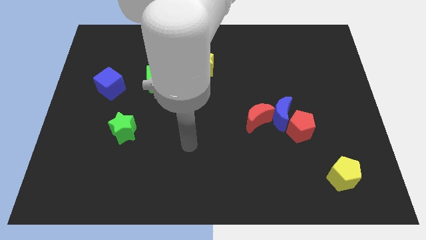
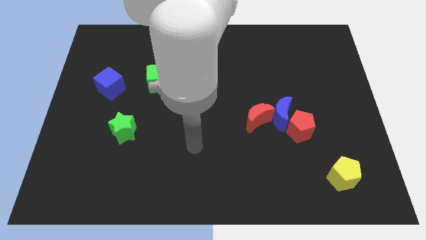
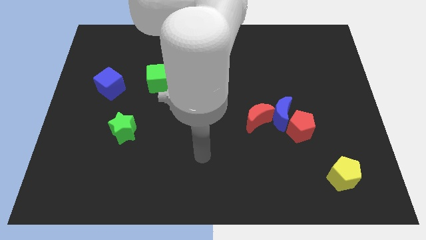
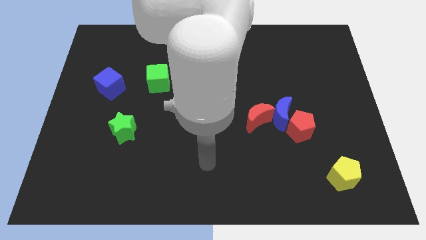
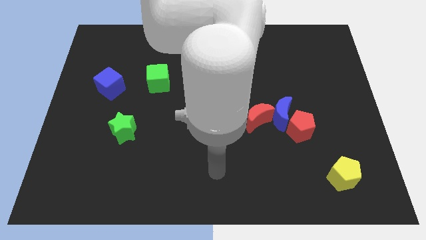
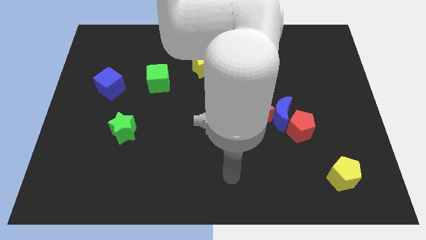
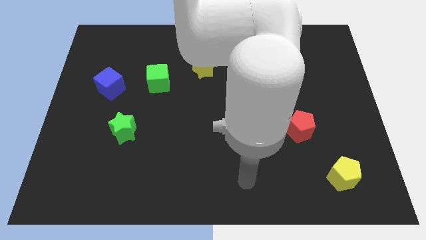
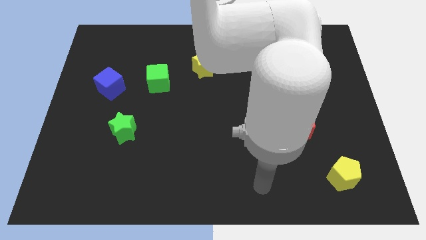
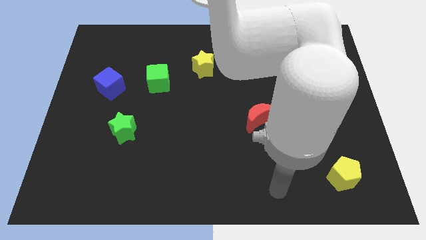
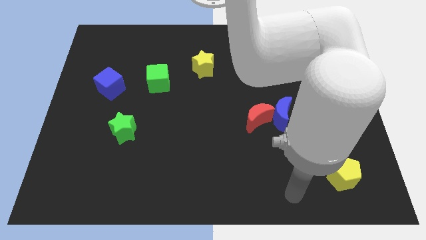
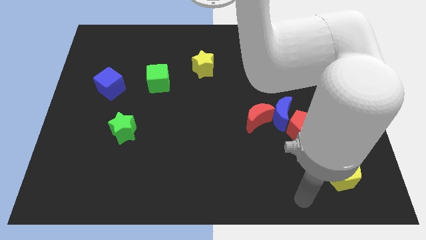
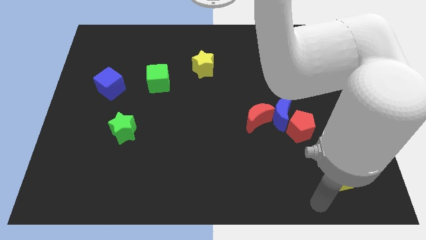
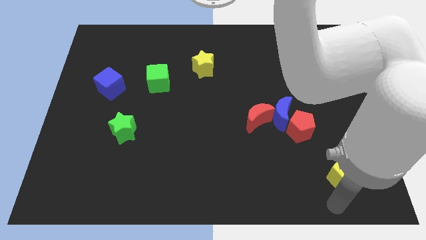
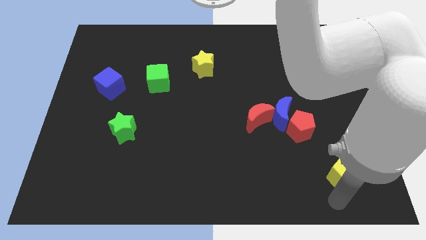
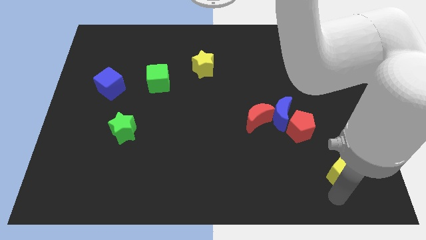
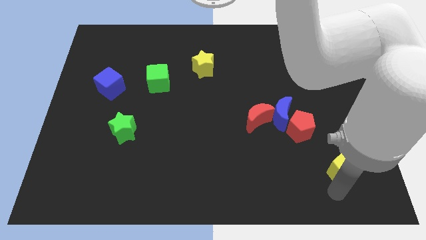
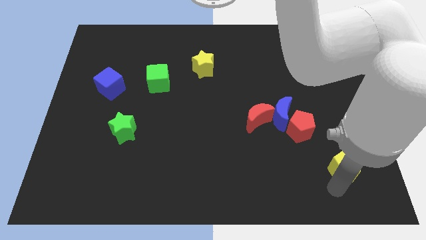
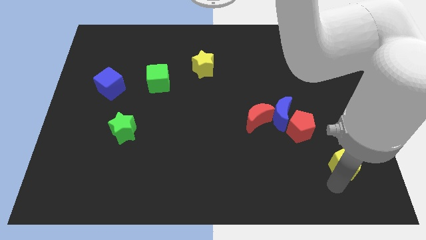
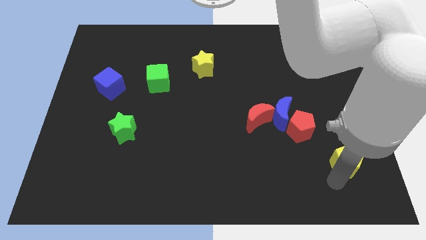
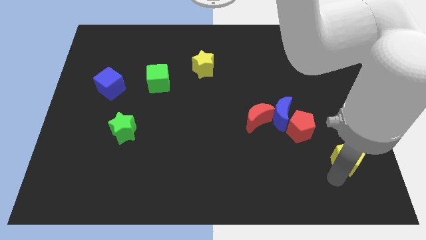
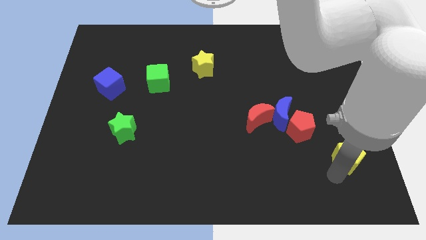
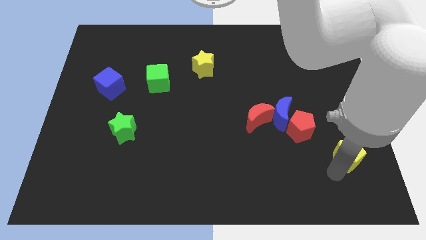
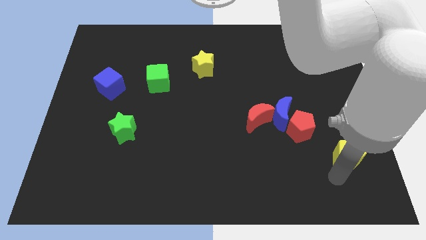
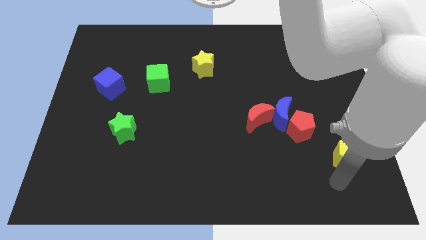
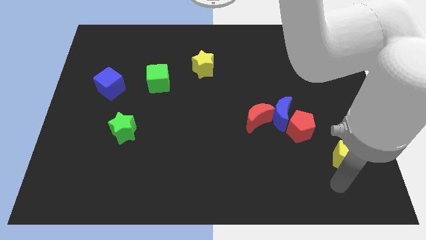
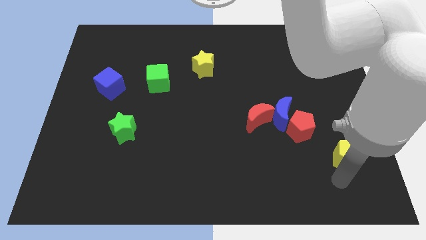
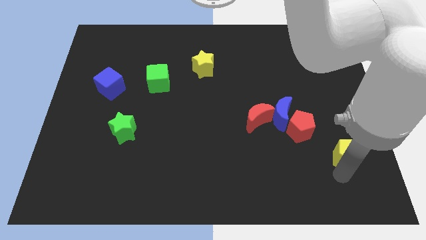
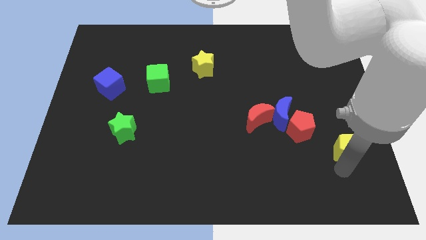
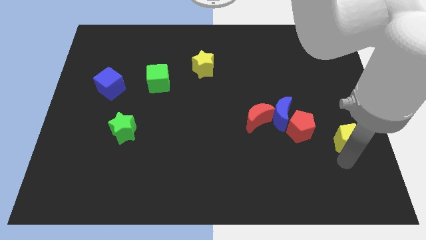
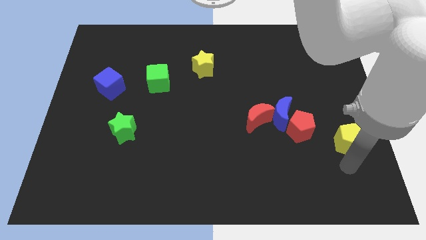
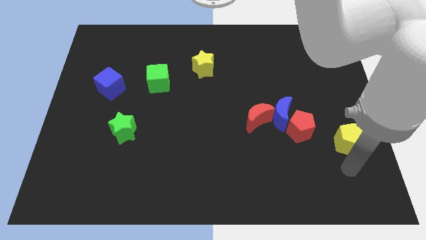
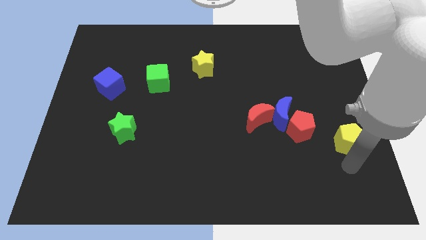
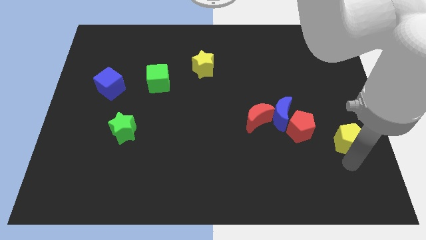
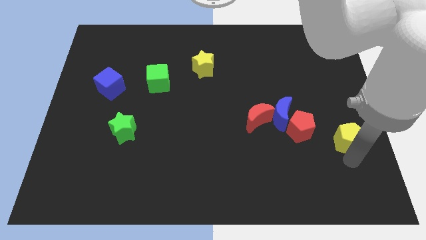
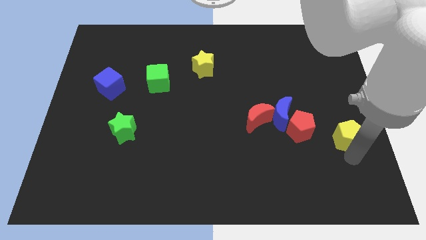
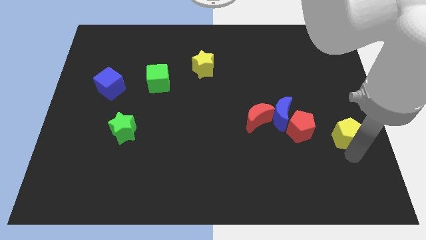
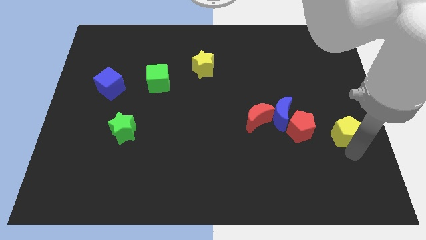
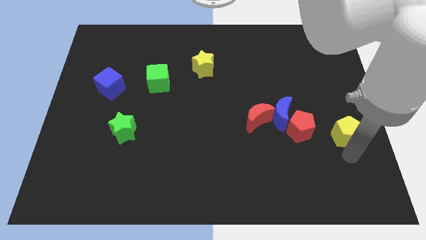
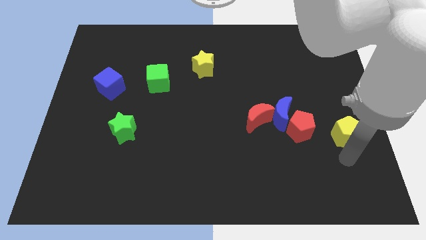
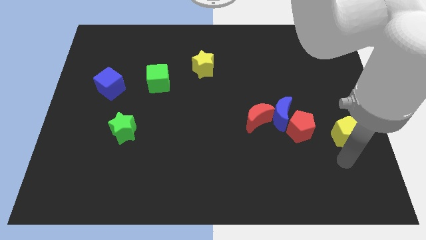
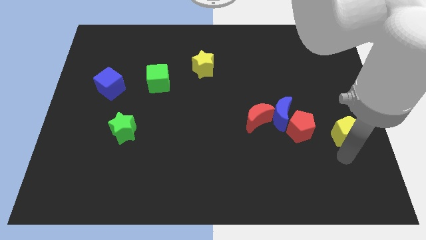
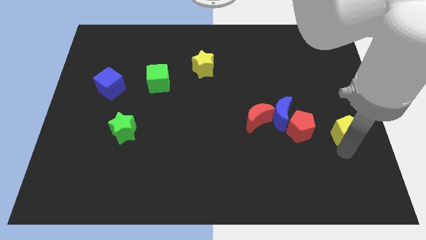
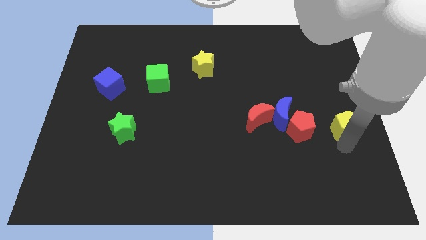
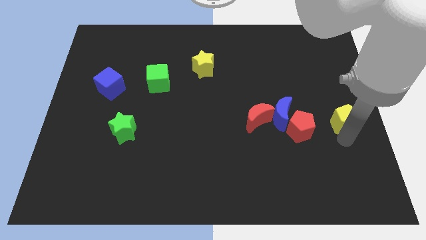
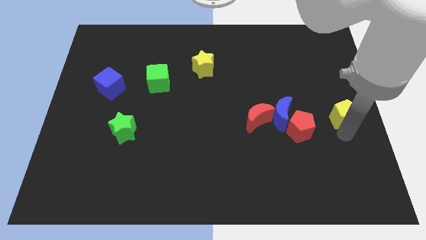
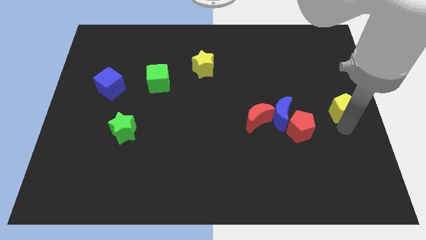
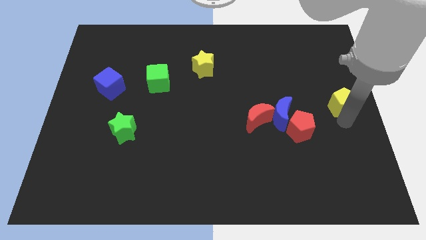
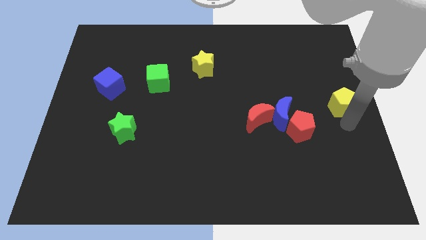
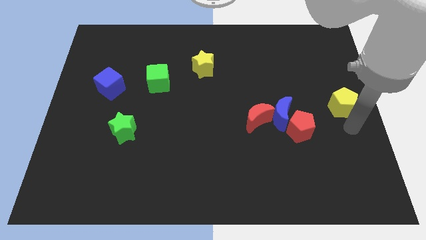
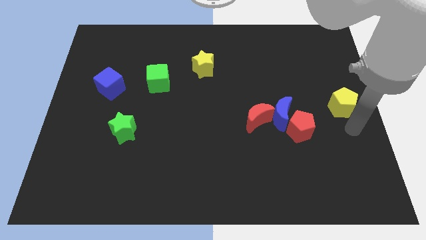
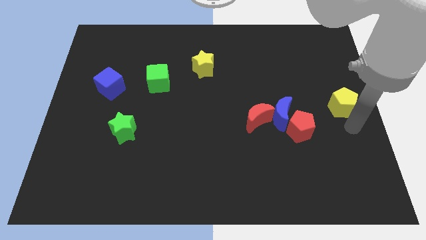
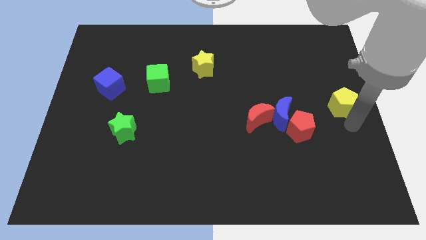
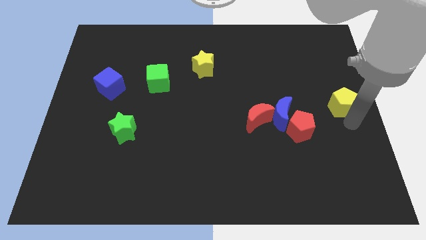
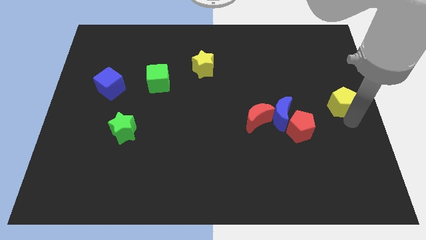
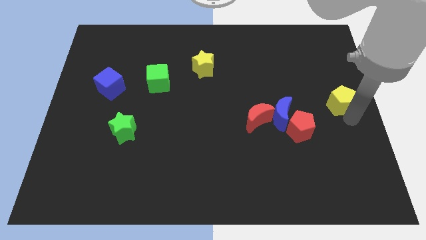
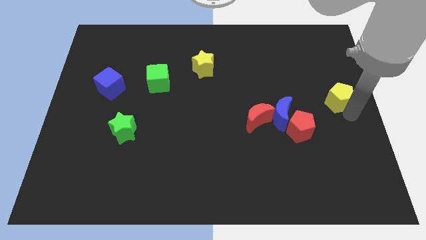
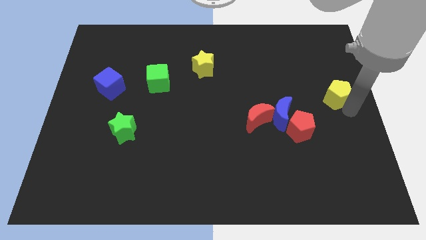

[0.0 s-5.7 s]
move the yellow pentagon upwards

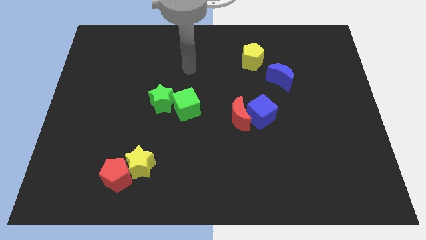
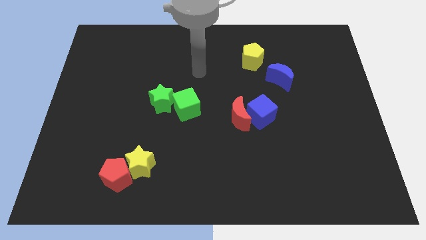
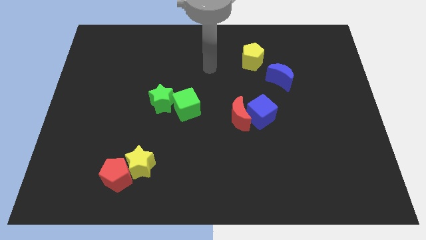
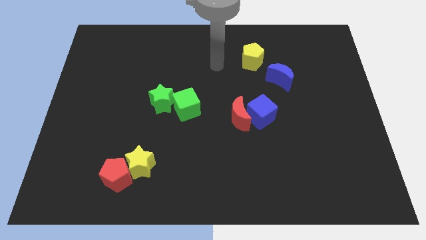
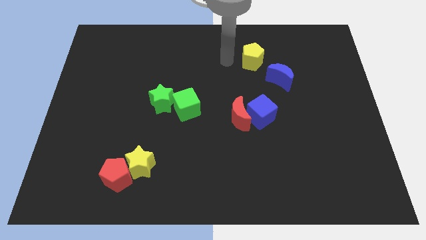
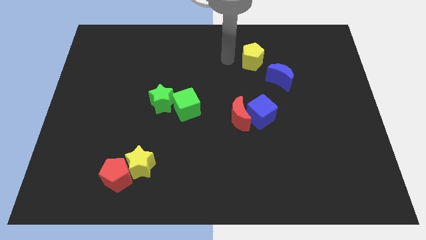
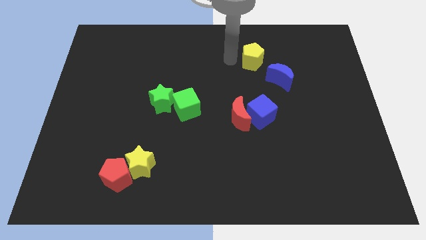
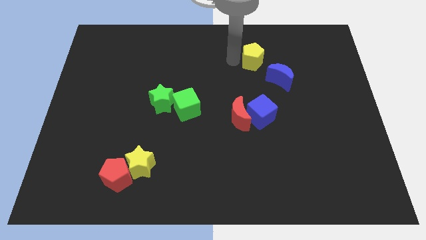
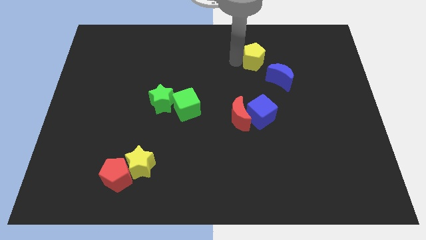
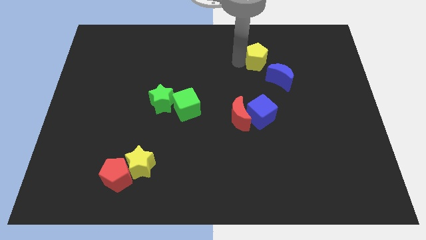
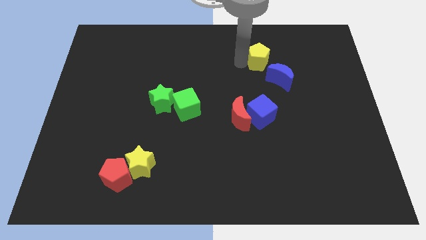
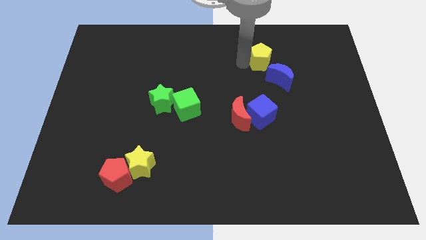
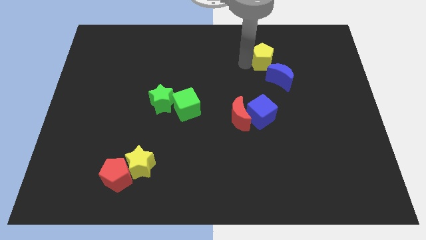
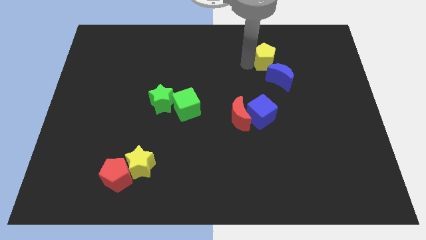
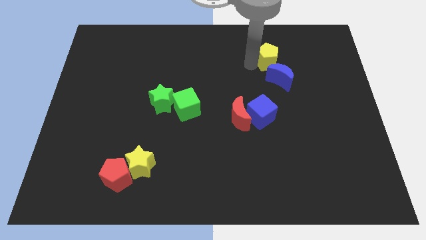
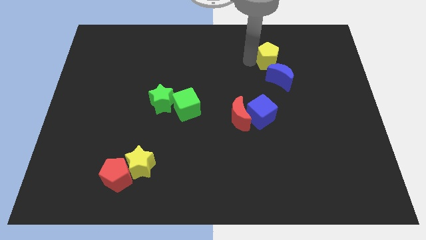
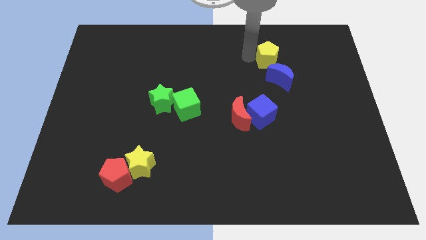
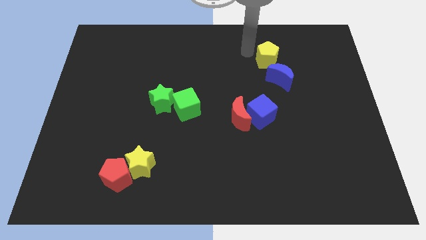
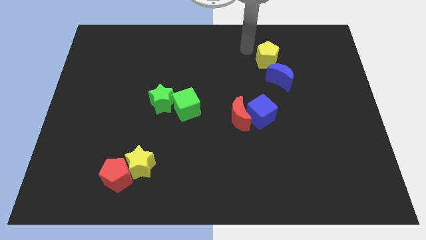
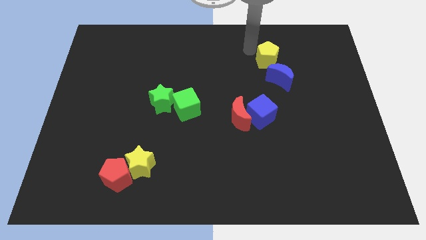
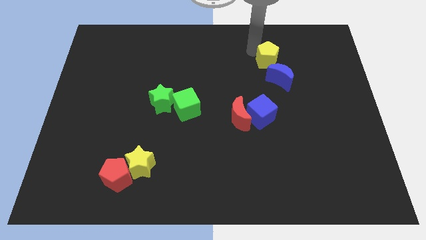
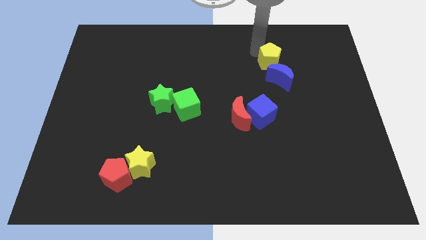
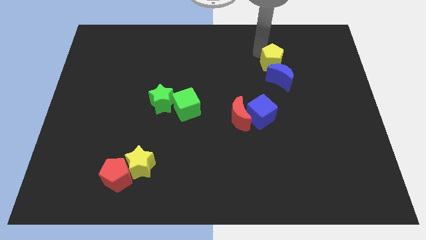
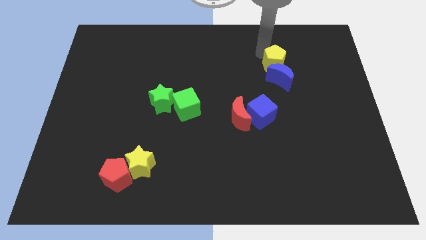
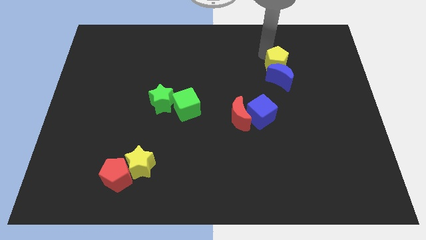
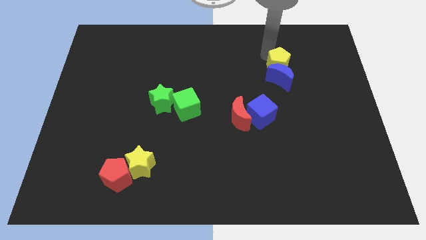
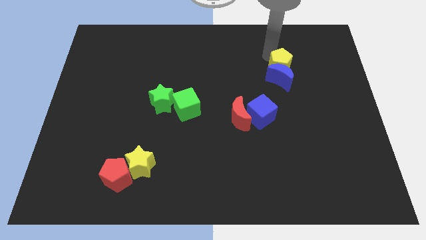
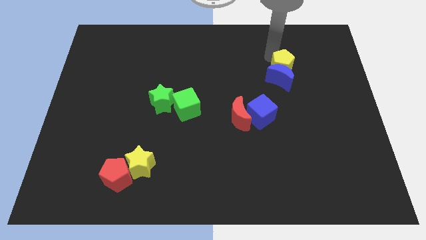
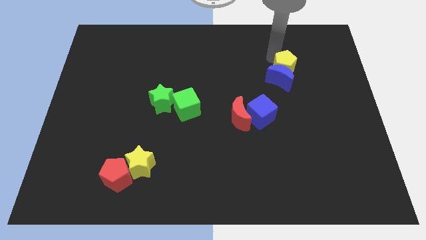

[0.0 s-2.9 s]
slightly push the yellow pentagon diagonally down and right
